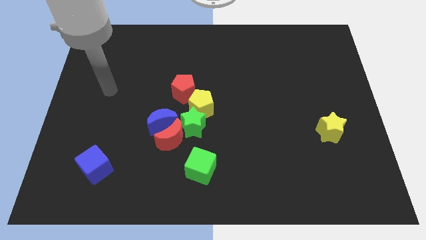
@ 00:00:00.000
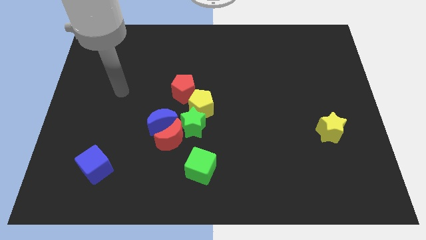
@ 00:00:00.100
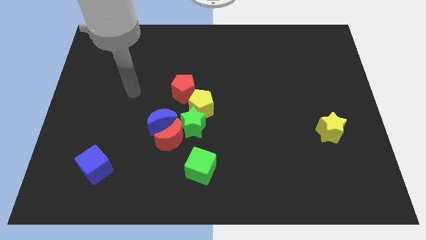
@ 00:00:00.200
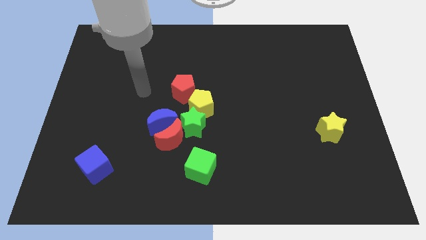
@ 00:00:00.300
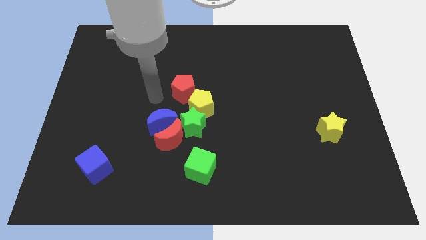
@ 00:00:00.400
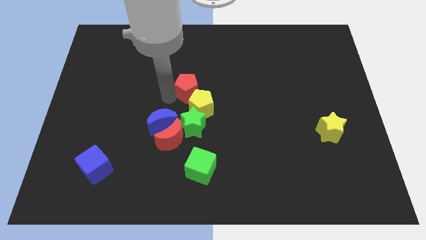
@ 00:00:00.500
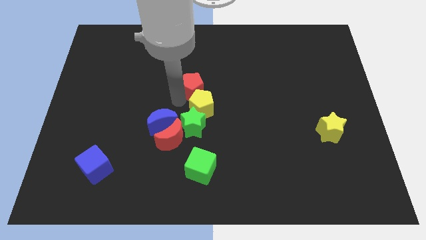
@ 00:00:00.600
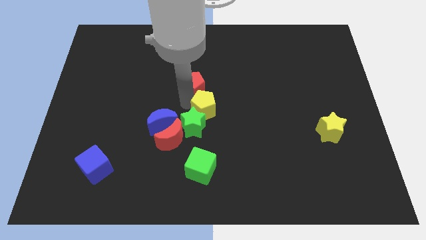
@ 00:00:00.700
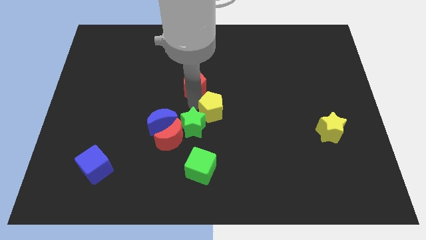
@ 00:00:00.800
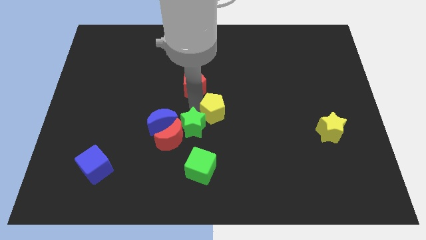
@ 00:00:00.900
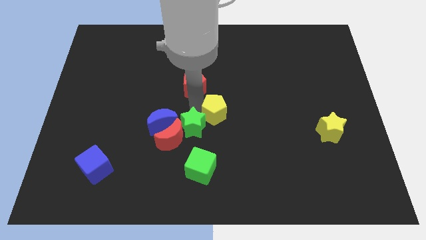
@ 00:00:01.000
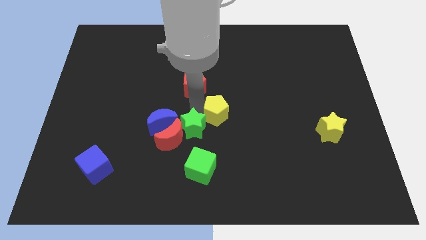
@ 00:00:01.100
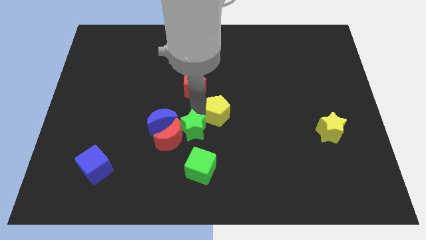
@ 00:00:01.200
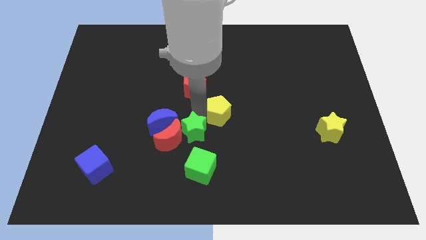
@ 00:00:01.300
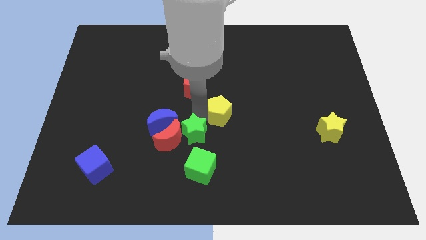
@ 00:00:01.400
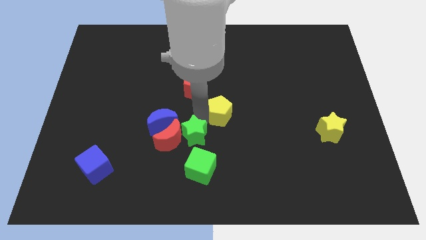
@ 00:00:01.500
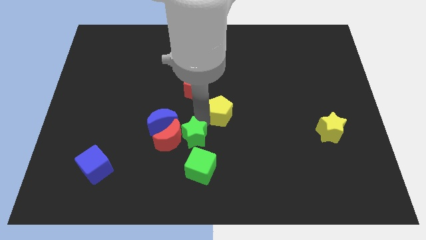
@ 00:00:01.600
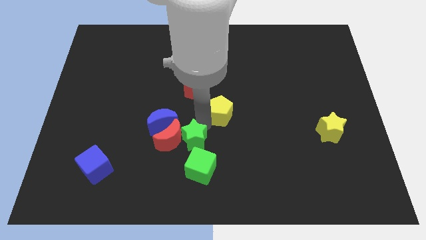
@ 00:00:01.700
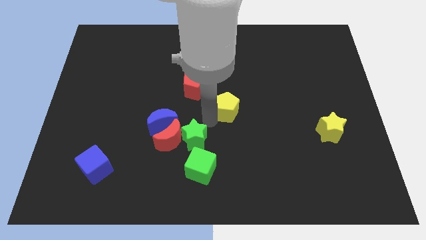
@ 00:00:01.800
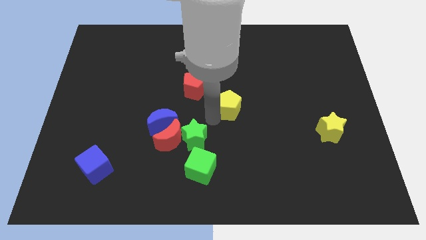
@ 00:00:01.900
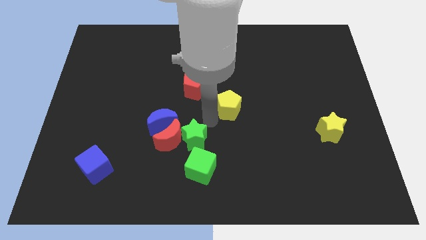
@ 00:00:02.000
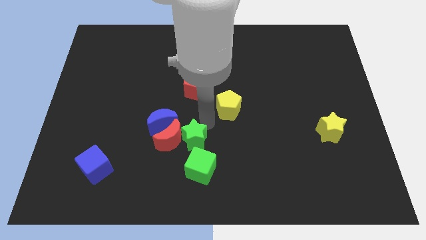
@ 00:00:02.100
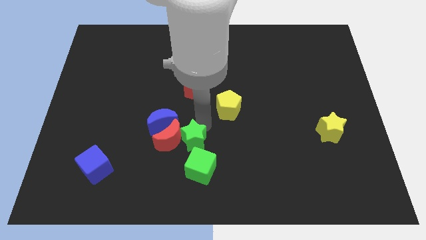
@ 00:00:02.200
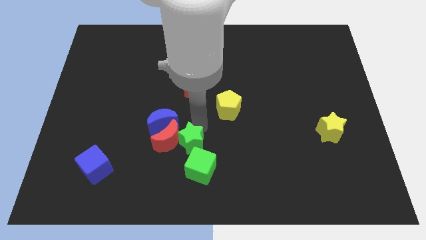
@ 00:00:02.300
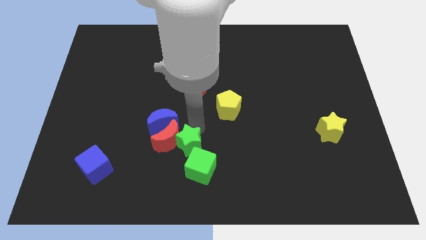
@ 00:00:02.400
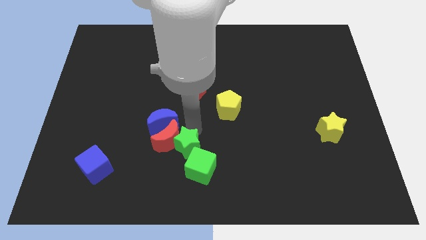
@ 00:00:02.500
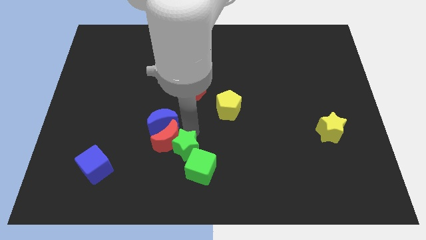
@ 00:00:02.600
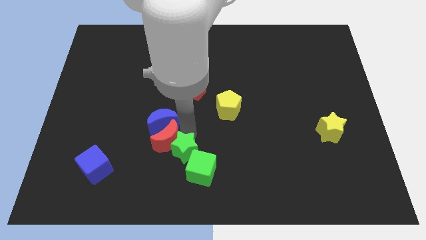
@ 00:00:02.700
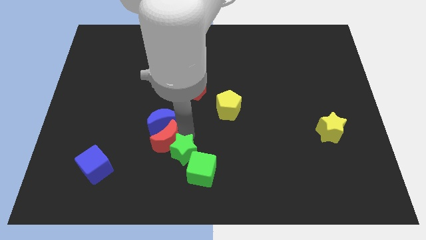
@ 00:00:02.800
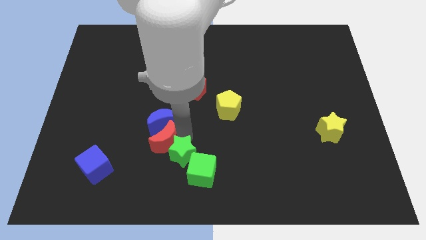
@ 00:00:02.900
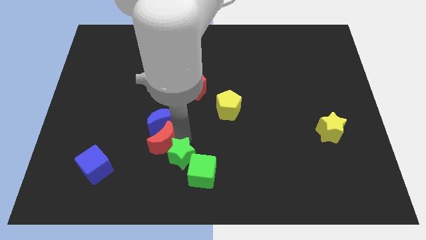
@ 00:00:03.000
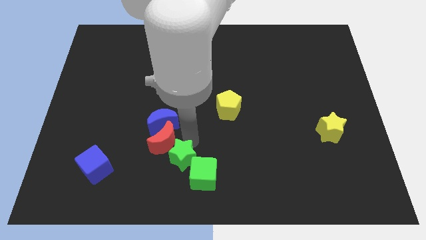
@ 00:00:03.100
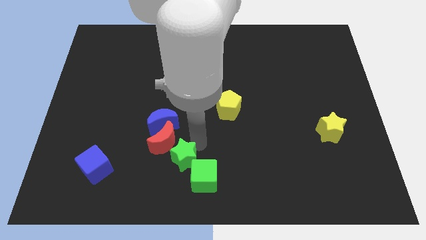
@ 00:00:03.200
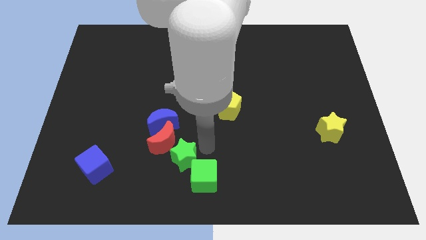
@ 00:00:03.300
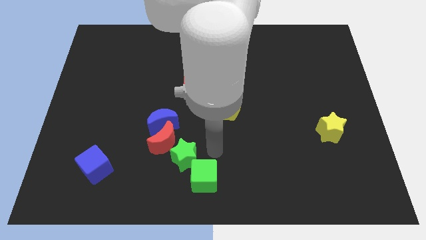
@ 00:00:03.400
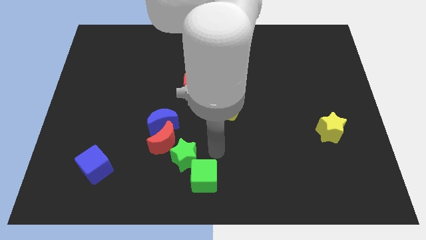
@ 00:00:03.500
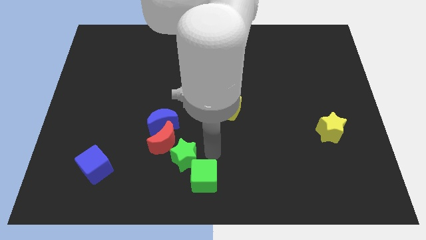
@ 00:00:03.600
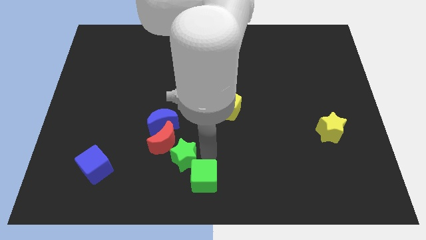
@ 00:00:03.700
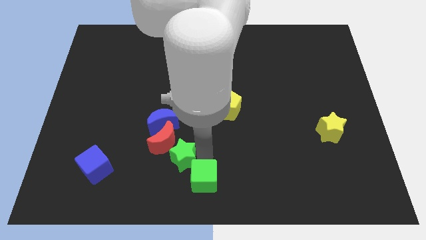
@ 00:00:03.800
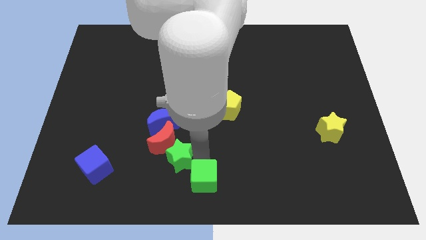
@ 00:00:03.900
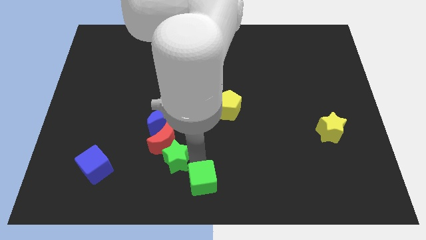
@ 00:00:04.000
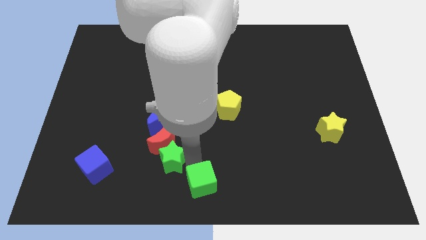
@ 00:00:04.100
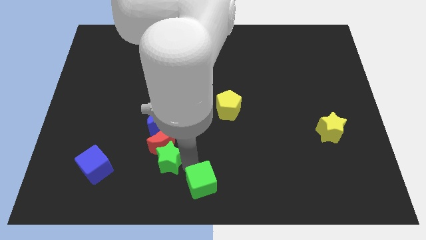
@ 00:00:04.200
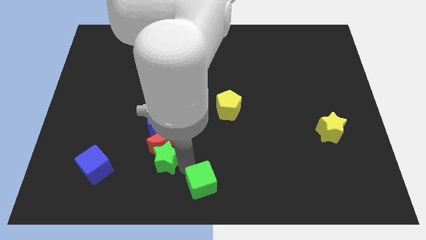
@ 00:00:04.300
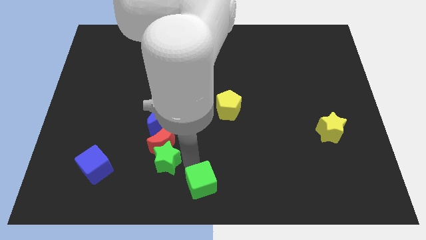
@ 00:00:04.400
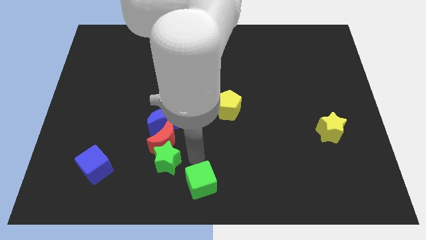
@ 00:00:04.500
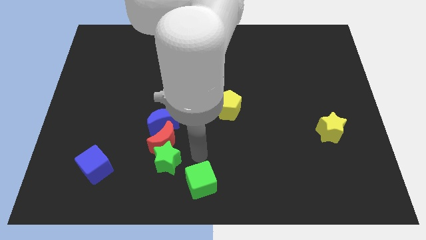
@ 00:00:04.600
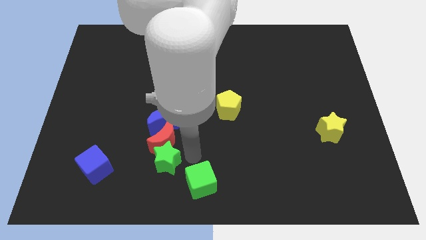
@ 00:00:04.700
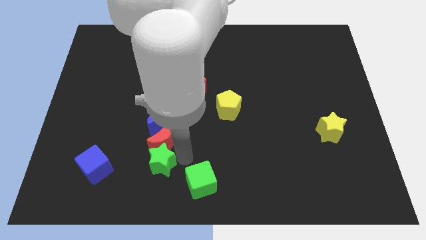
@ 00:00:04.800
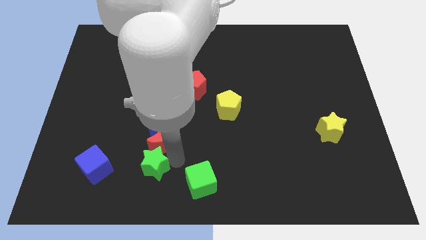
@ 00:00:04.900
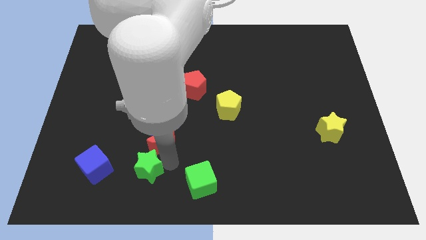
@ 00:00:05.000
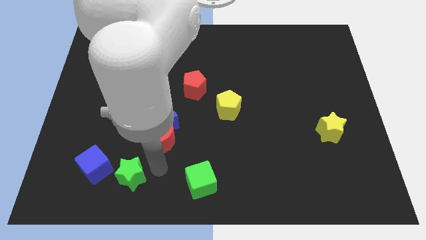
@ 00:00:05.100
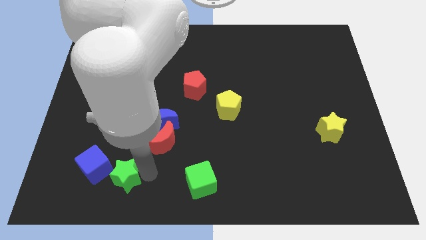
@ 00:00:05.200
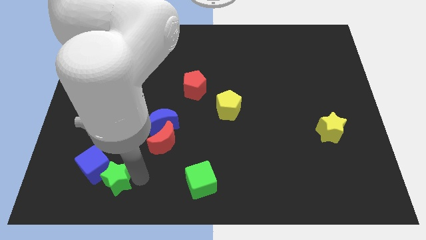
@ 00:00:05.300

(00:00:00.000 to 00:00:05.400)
slide the green star close to the blue cube

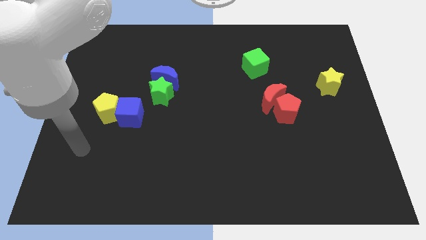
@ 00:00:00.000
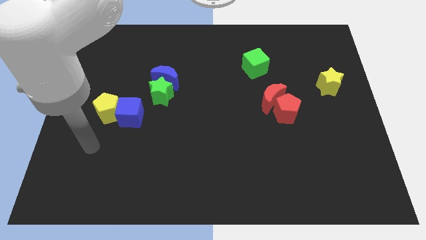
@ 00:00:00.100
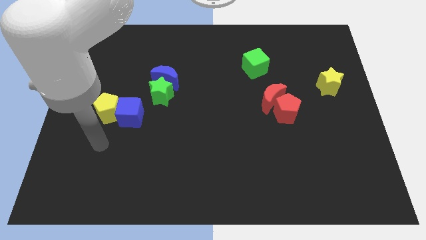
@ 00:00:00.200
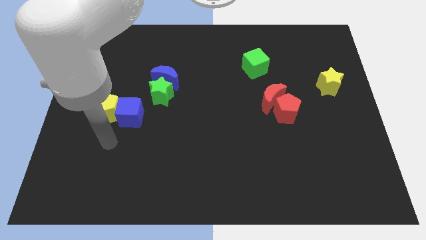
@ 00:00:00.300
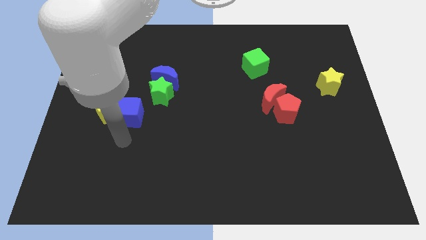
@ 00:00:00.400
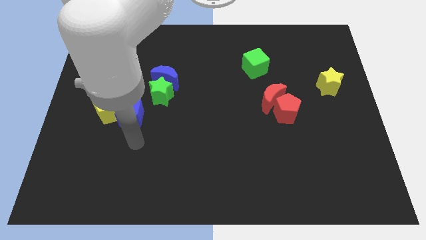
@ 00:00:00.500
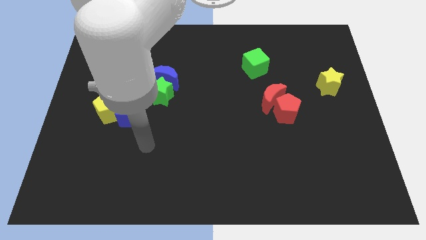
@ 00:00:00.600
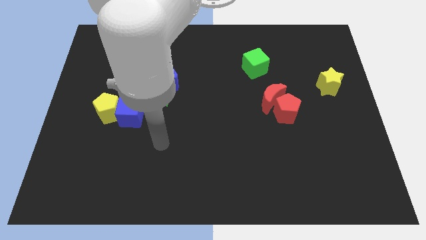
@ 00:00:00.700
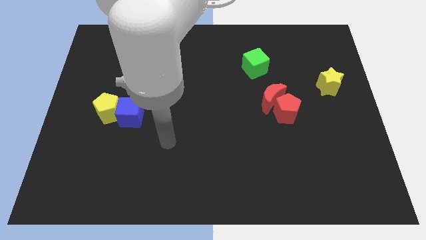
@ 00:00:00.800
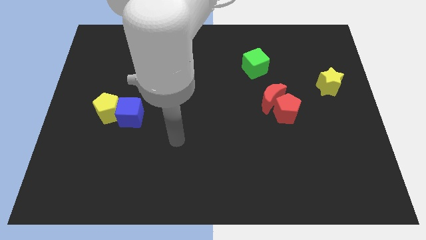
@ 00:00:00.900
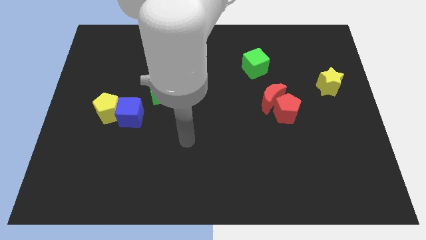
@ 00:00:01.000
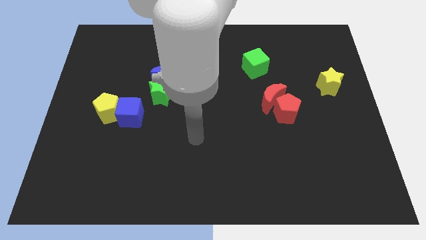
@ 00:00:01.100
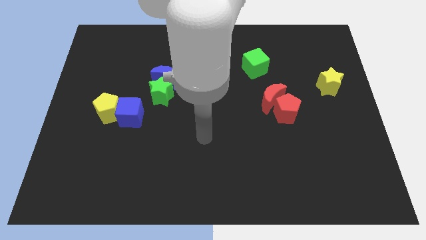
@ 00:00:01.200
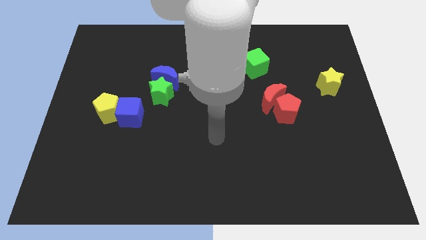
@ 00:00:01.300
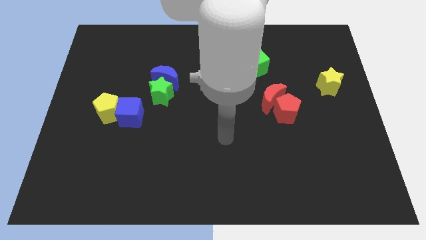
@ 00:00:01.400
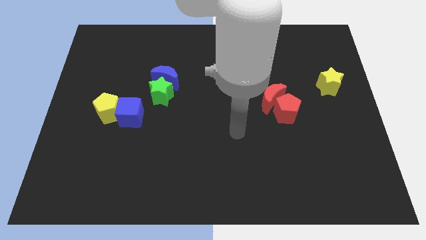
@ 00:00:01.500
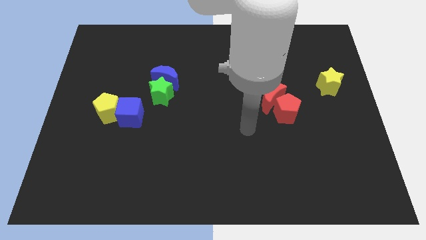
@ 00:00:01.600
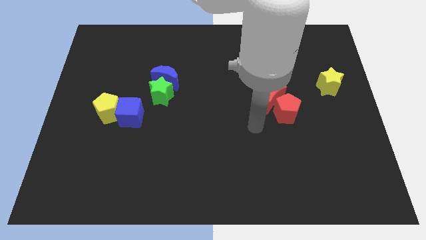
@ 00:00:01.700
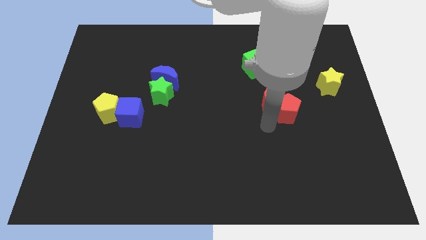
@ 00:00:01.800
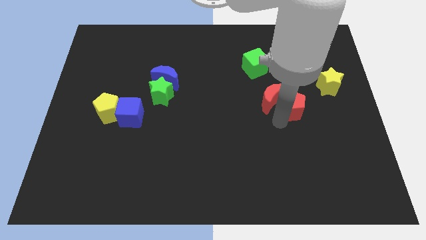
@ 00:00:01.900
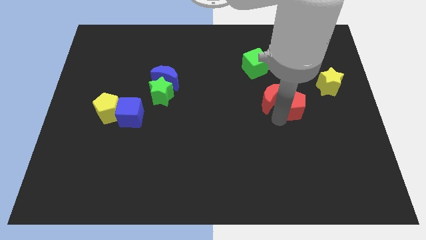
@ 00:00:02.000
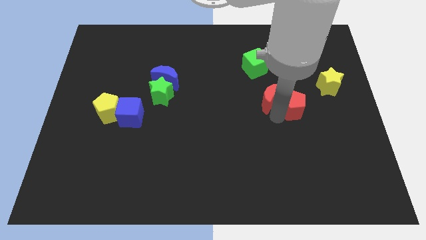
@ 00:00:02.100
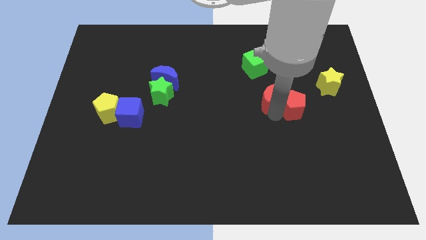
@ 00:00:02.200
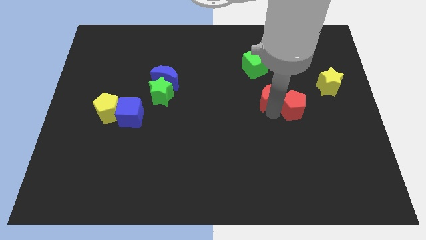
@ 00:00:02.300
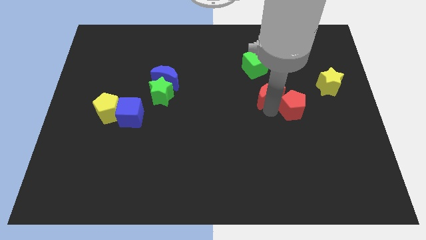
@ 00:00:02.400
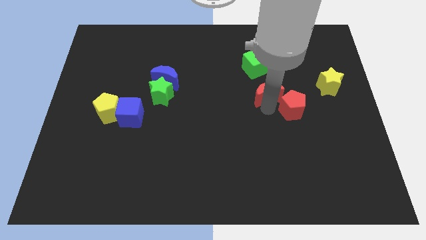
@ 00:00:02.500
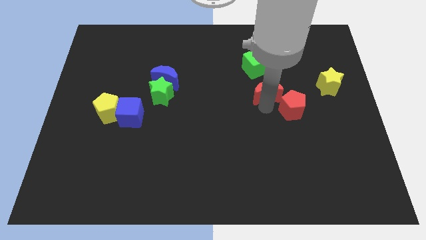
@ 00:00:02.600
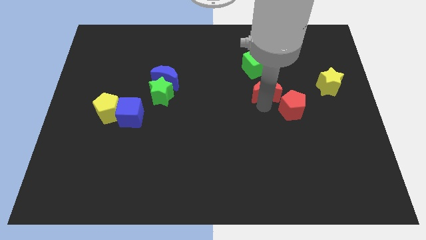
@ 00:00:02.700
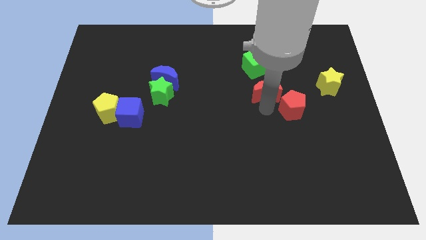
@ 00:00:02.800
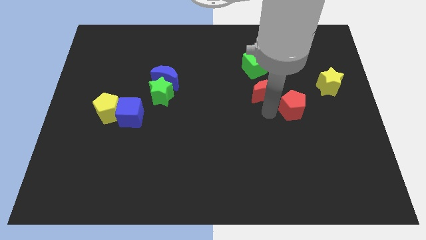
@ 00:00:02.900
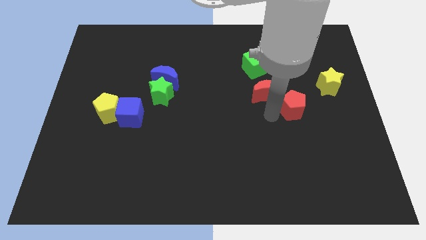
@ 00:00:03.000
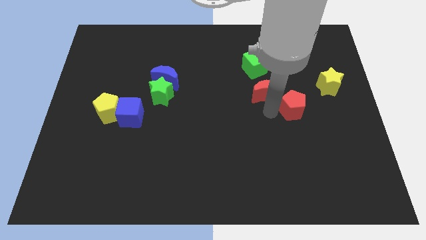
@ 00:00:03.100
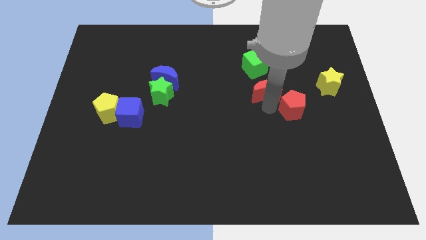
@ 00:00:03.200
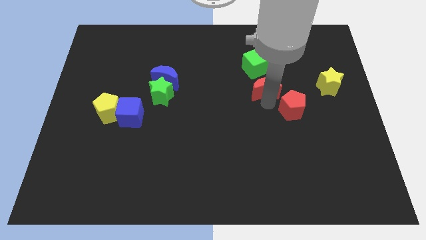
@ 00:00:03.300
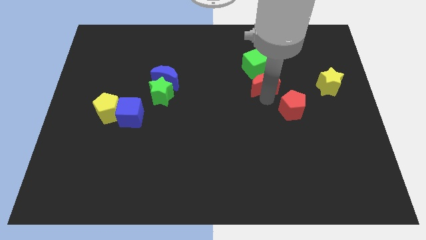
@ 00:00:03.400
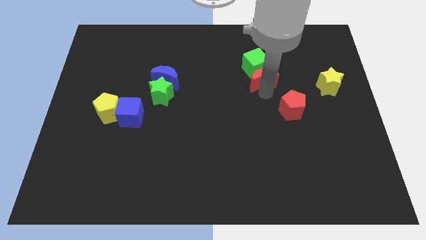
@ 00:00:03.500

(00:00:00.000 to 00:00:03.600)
put the red moon towards the green cube
